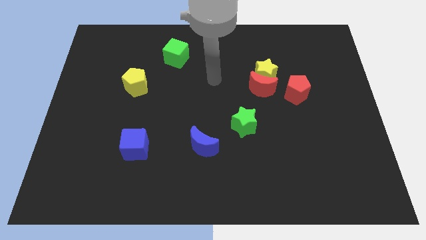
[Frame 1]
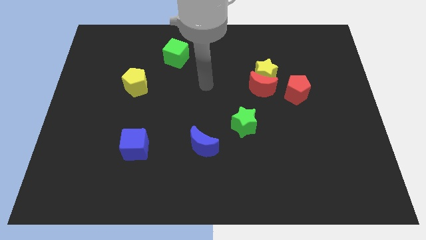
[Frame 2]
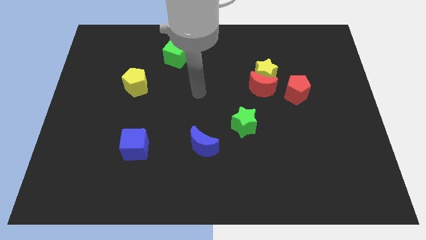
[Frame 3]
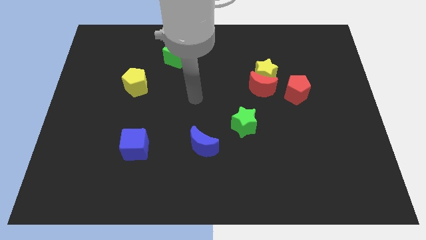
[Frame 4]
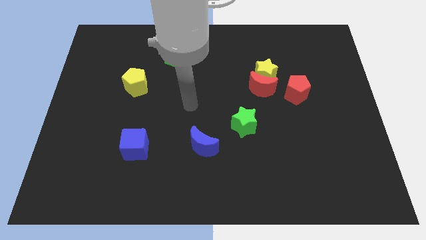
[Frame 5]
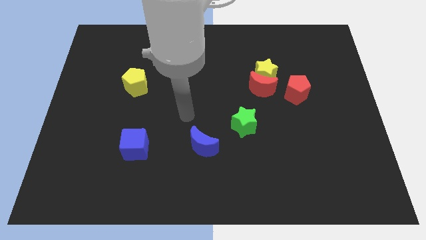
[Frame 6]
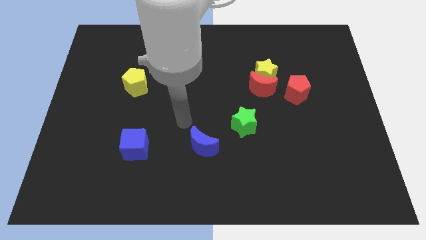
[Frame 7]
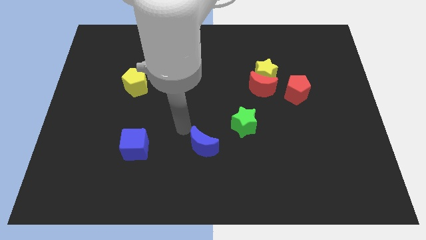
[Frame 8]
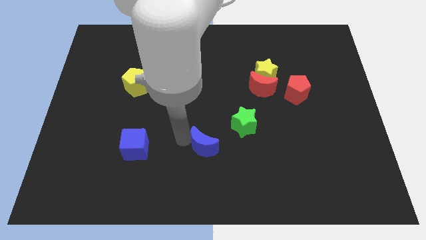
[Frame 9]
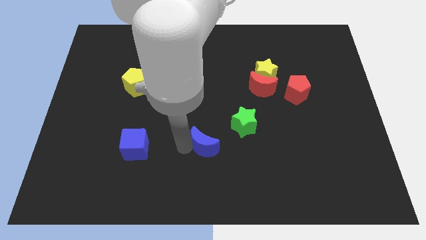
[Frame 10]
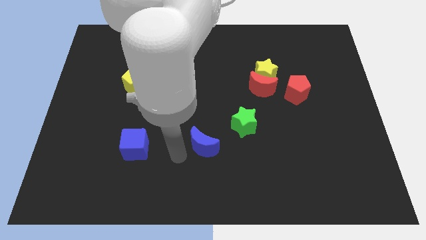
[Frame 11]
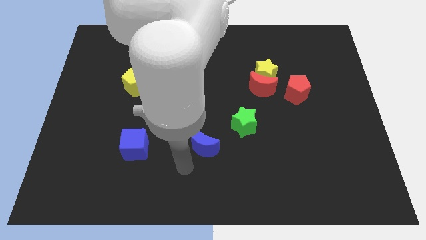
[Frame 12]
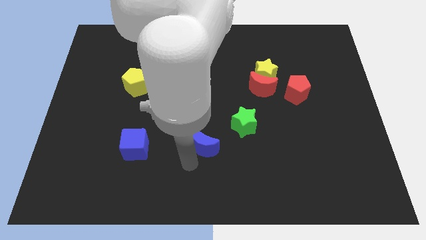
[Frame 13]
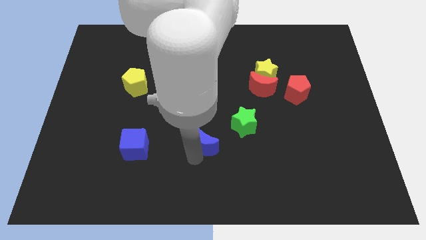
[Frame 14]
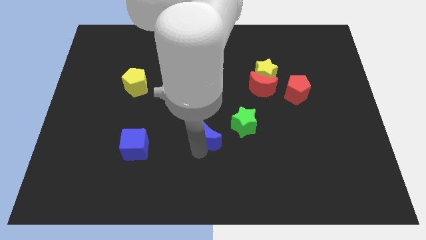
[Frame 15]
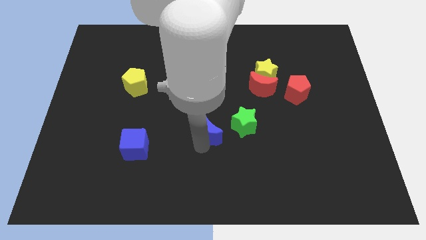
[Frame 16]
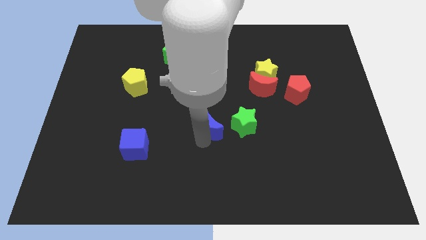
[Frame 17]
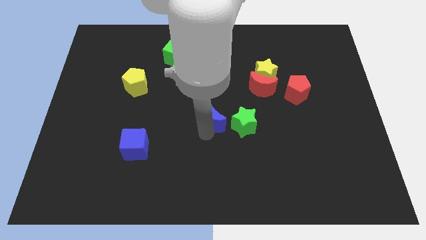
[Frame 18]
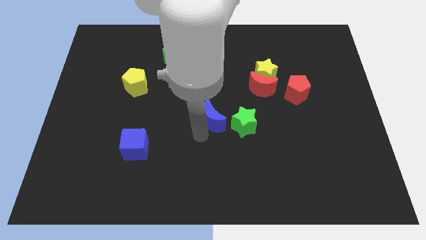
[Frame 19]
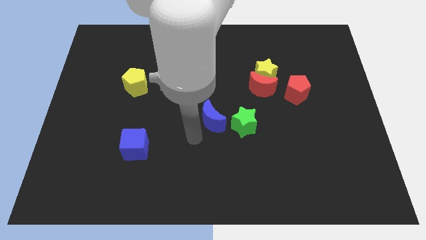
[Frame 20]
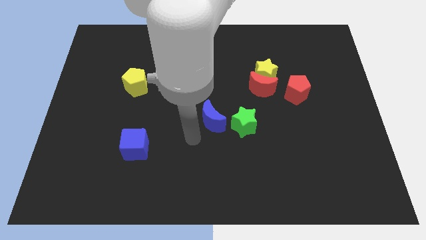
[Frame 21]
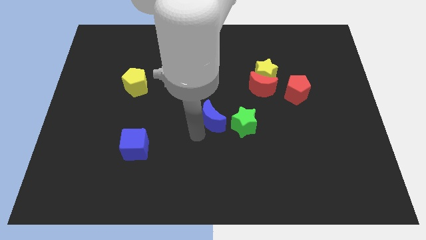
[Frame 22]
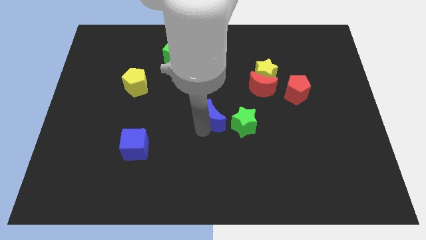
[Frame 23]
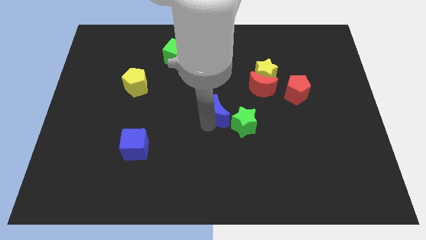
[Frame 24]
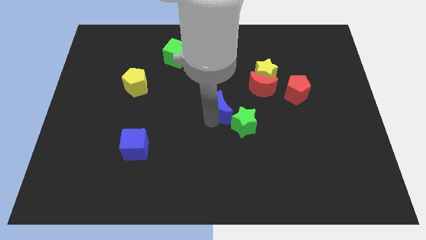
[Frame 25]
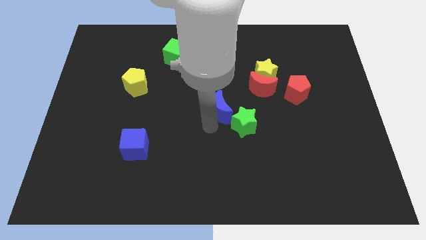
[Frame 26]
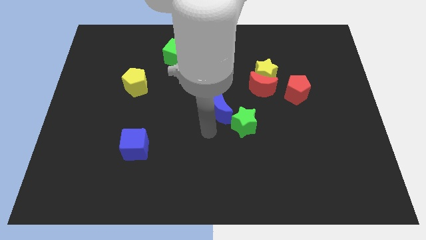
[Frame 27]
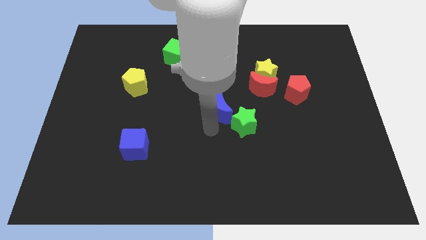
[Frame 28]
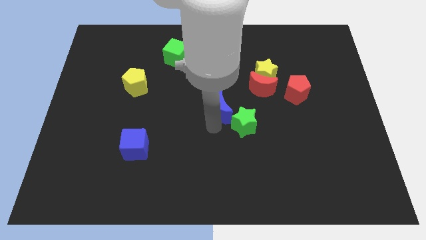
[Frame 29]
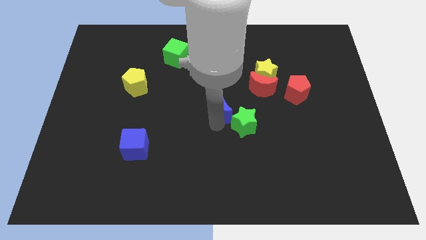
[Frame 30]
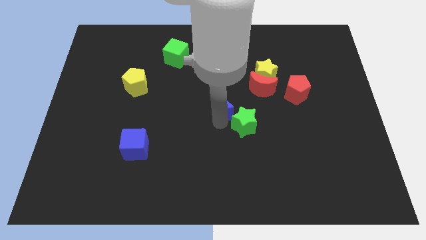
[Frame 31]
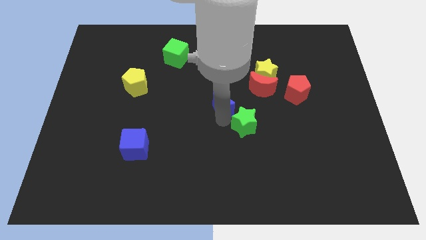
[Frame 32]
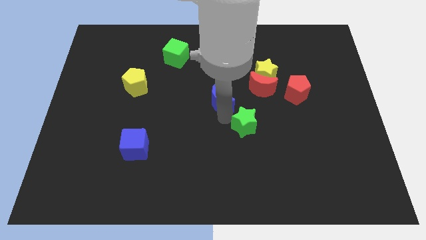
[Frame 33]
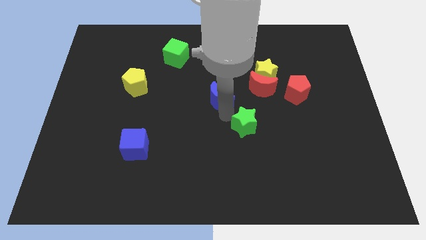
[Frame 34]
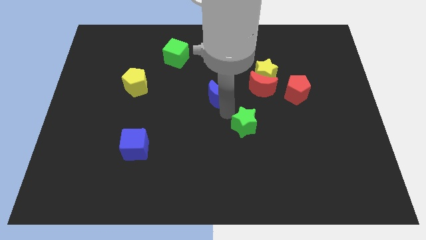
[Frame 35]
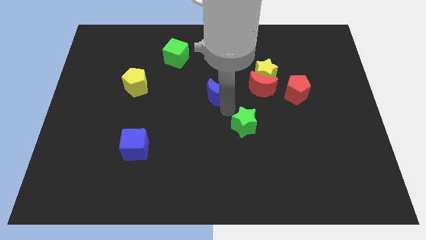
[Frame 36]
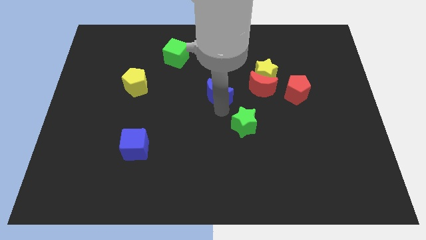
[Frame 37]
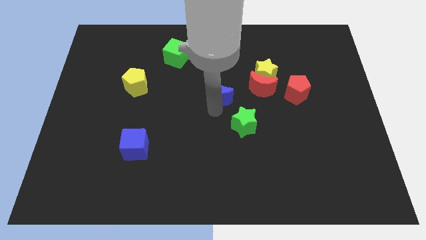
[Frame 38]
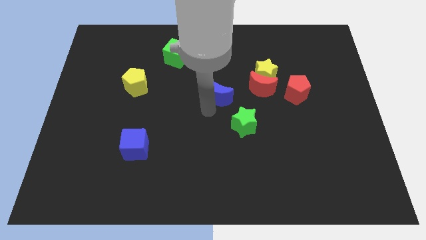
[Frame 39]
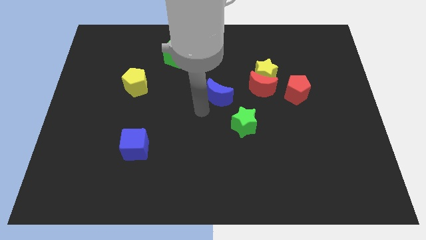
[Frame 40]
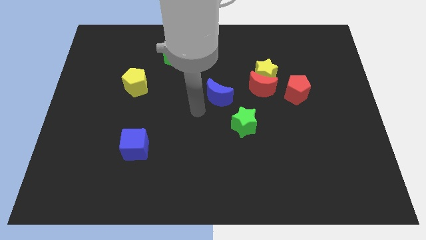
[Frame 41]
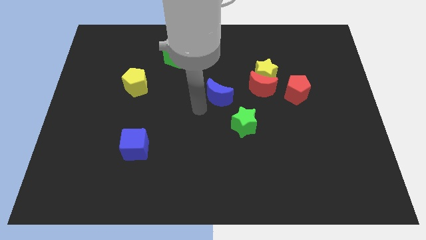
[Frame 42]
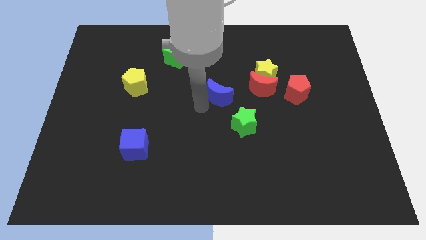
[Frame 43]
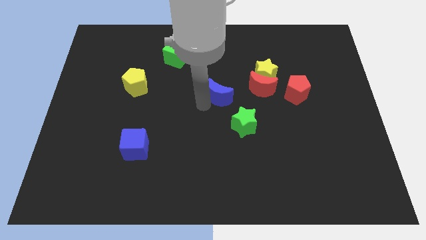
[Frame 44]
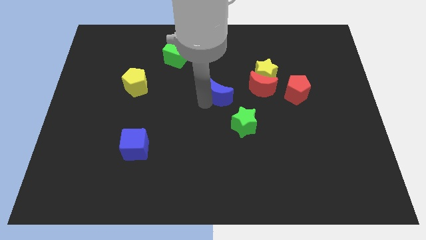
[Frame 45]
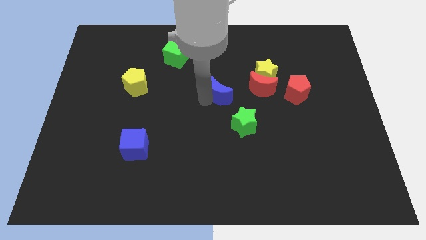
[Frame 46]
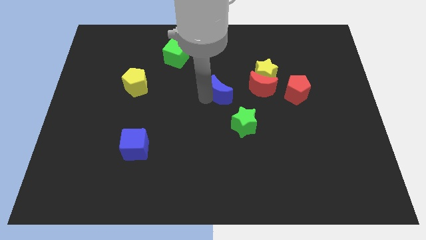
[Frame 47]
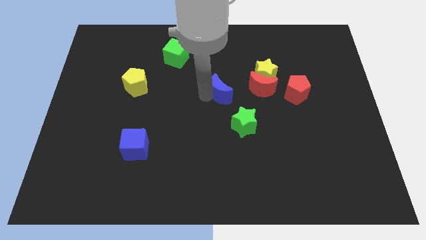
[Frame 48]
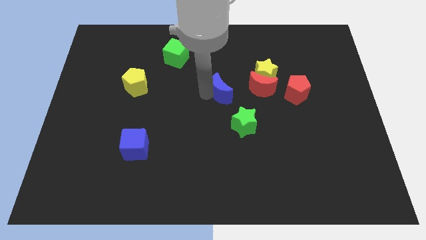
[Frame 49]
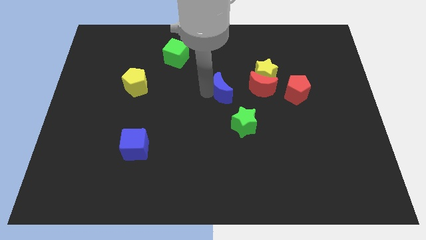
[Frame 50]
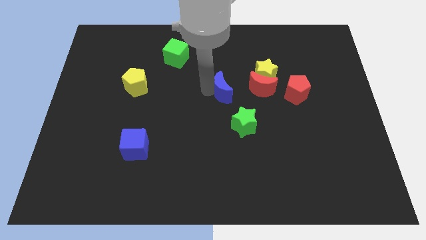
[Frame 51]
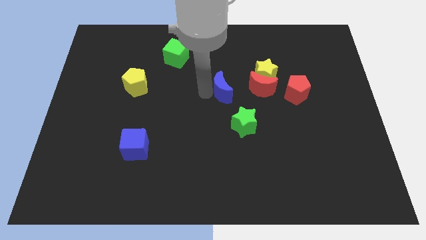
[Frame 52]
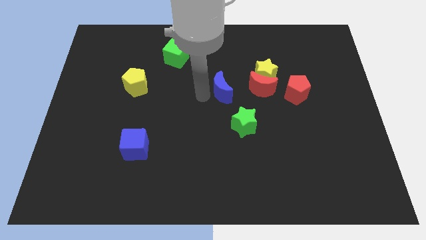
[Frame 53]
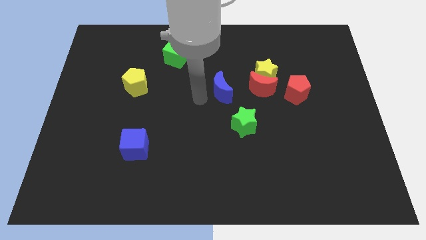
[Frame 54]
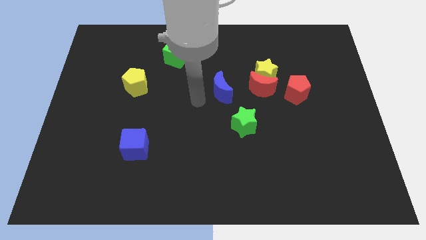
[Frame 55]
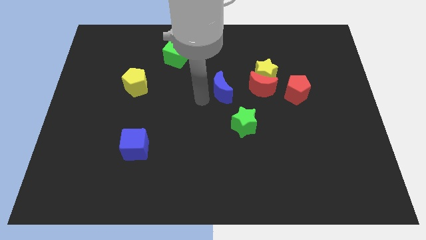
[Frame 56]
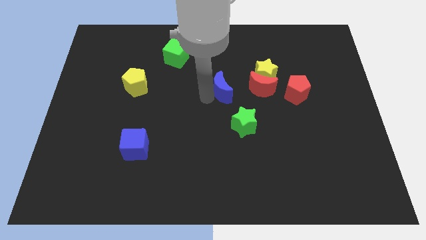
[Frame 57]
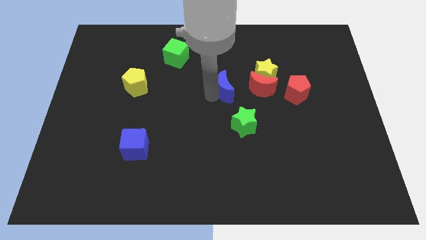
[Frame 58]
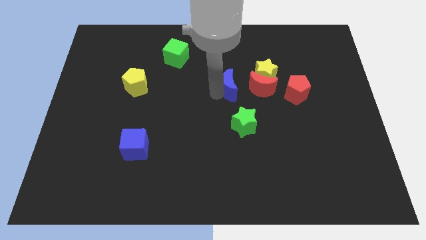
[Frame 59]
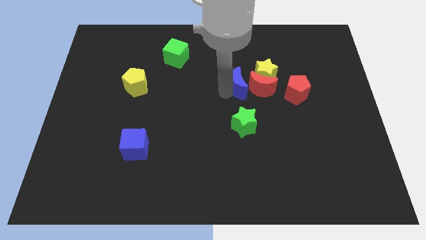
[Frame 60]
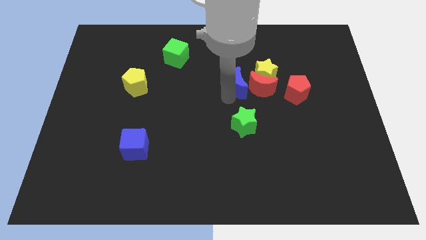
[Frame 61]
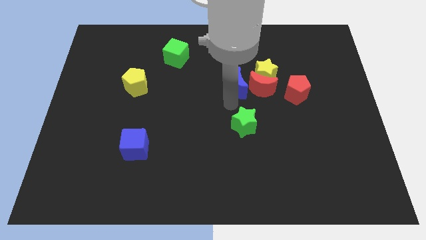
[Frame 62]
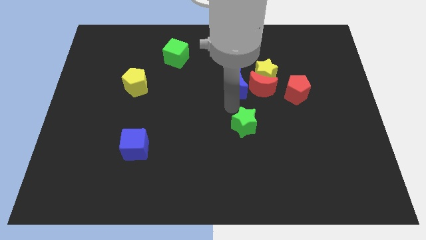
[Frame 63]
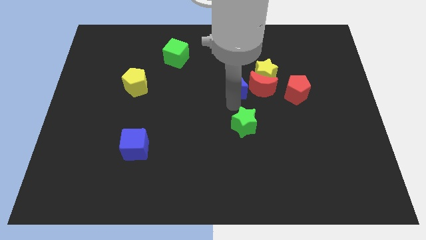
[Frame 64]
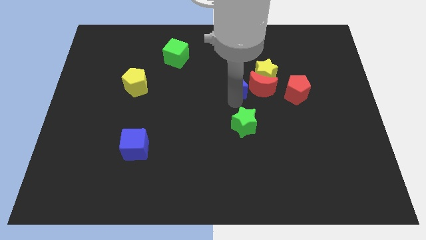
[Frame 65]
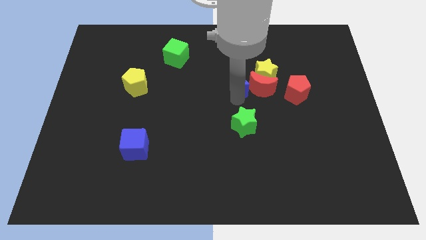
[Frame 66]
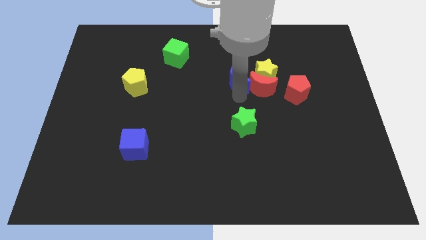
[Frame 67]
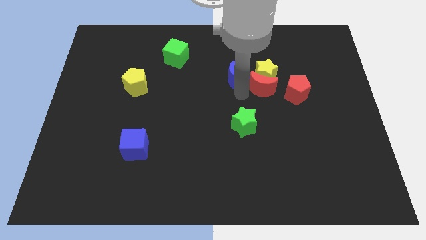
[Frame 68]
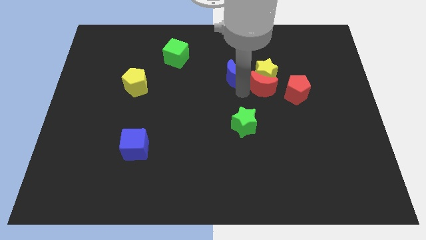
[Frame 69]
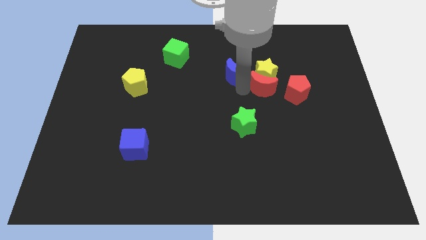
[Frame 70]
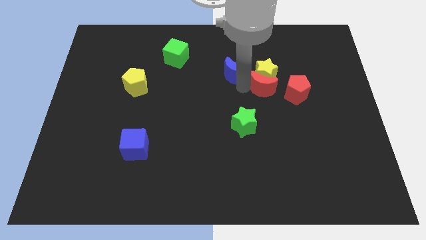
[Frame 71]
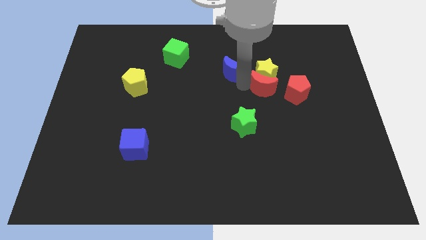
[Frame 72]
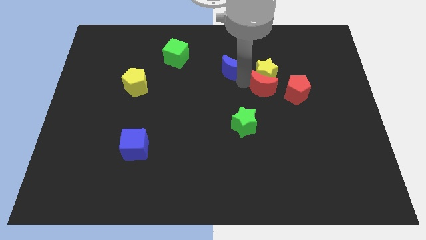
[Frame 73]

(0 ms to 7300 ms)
put the blue moon to the top left of the yellow star
